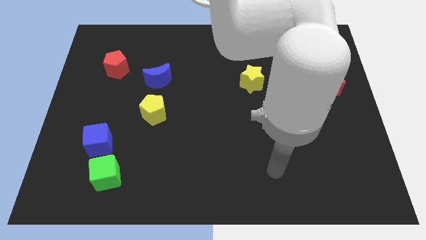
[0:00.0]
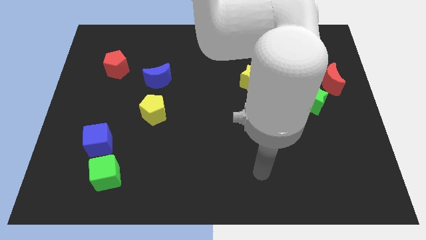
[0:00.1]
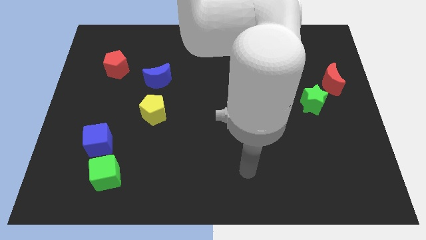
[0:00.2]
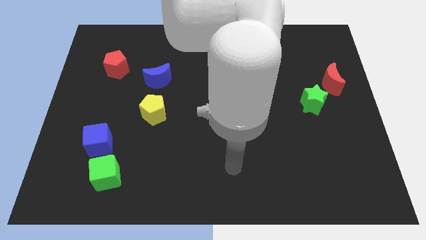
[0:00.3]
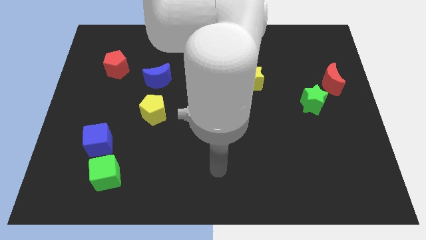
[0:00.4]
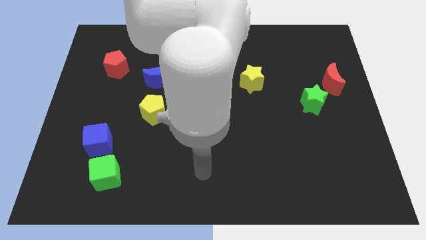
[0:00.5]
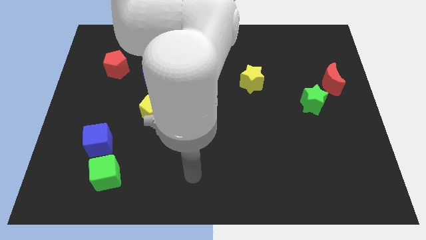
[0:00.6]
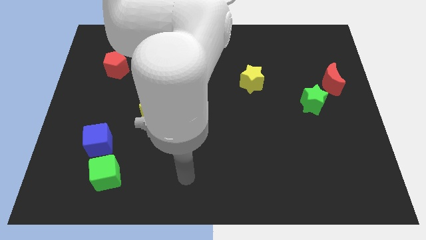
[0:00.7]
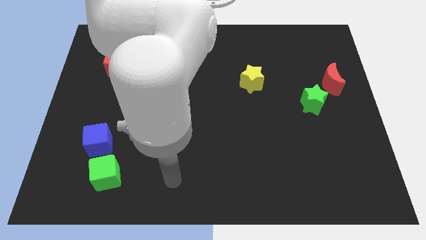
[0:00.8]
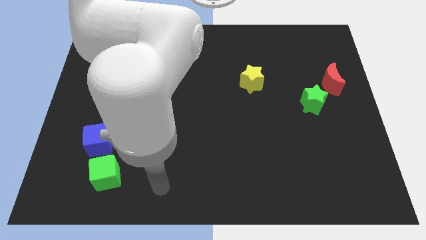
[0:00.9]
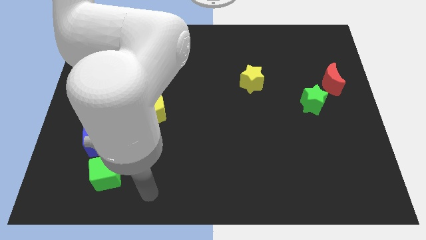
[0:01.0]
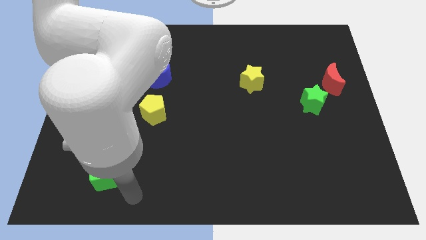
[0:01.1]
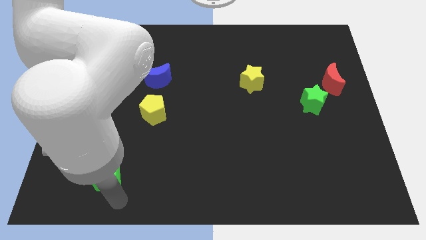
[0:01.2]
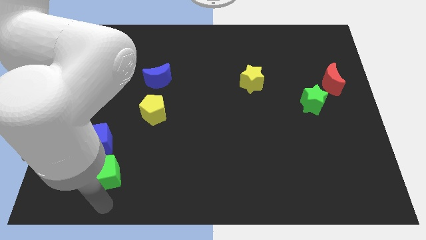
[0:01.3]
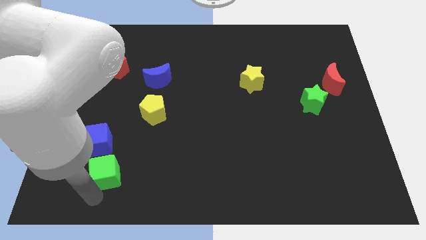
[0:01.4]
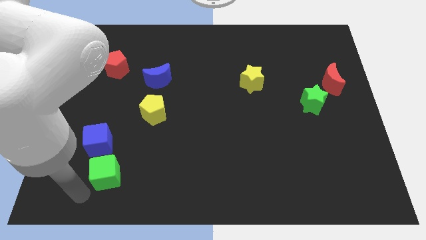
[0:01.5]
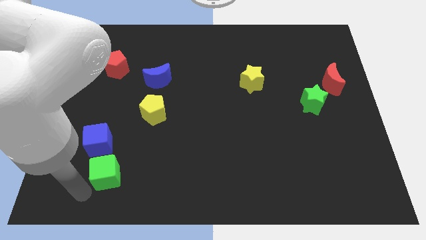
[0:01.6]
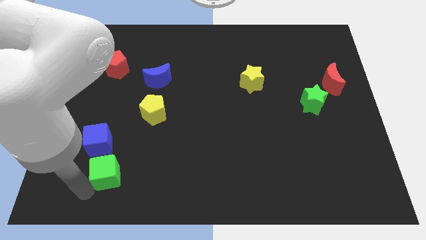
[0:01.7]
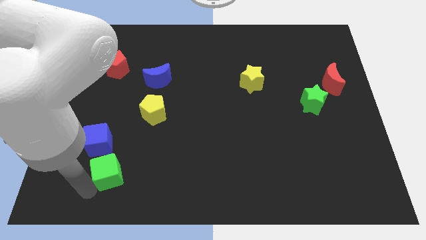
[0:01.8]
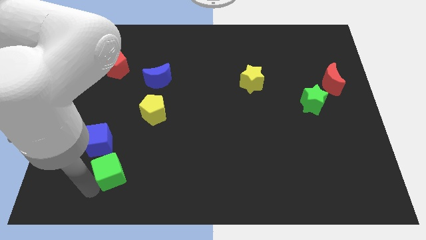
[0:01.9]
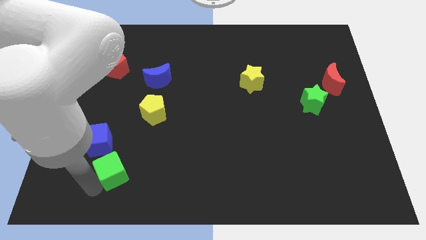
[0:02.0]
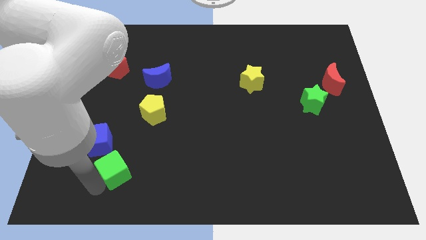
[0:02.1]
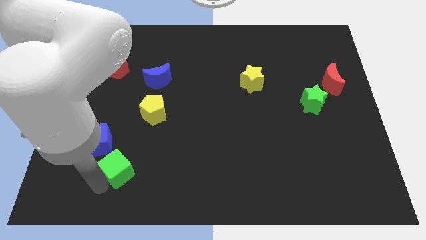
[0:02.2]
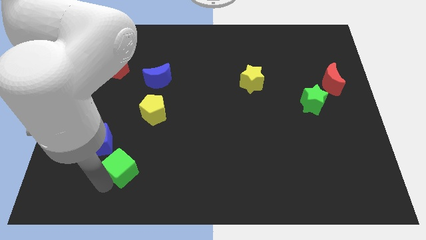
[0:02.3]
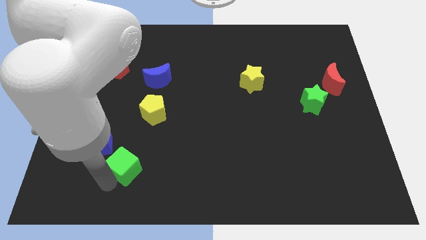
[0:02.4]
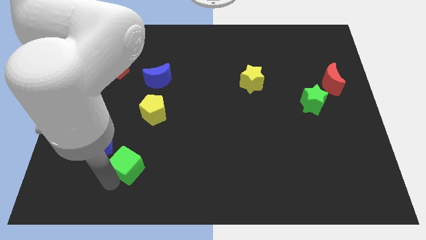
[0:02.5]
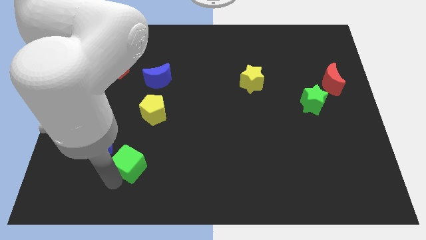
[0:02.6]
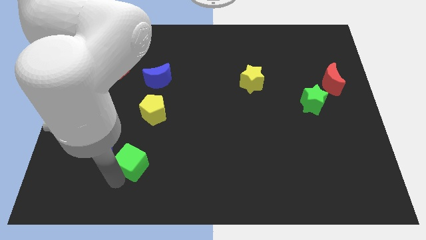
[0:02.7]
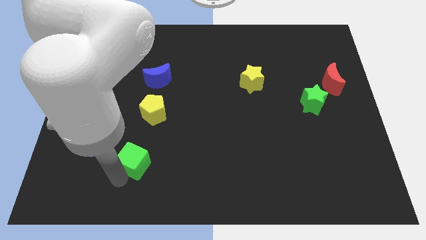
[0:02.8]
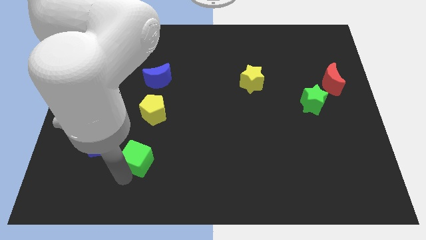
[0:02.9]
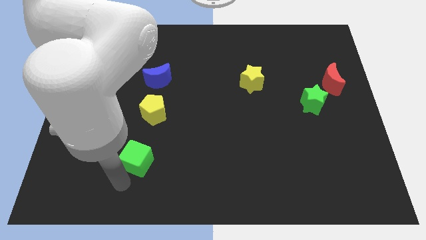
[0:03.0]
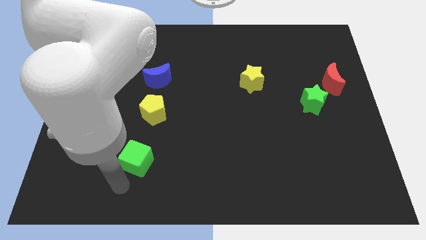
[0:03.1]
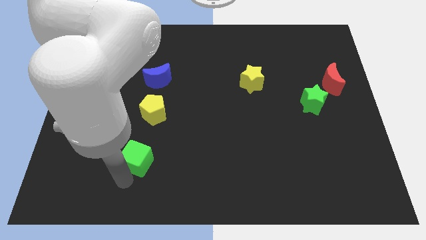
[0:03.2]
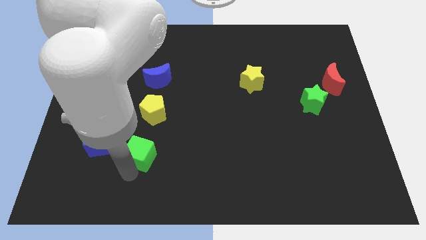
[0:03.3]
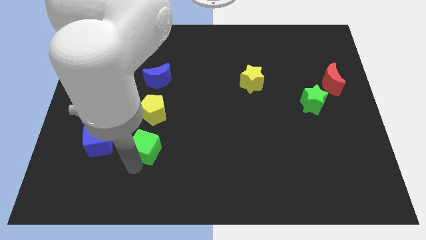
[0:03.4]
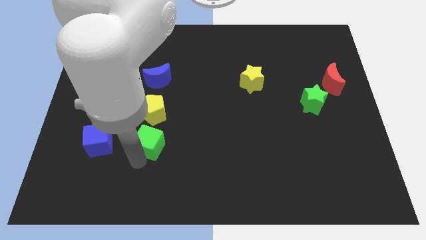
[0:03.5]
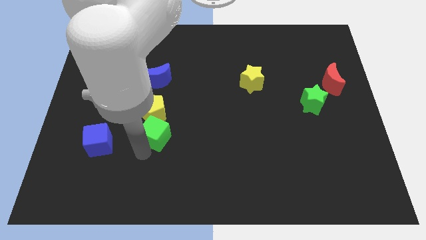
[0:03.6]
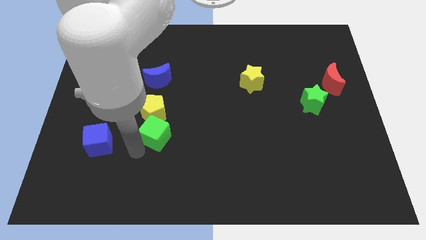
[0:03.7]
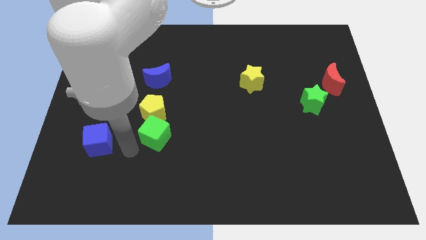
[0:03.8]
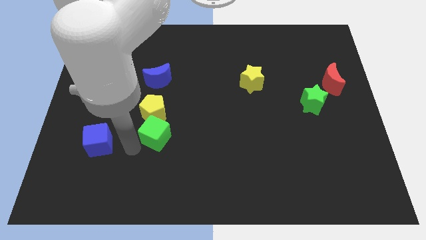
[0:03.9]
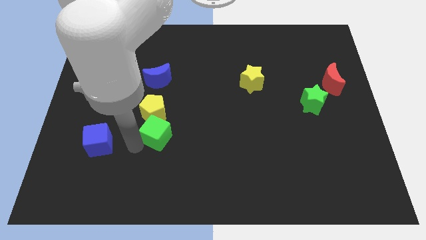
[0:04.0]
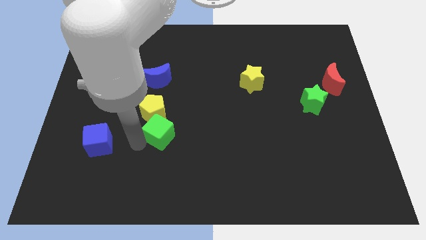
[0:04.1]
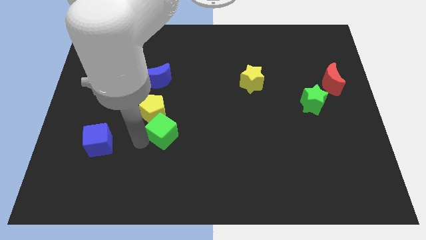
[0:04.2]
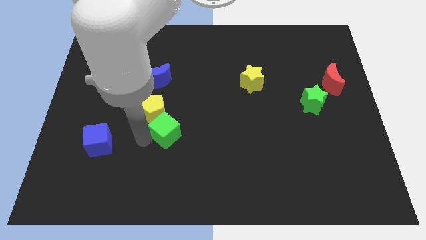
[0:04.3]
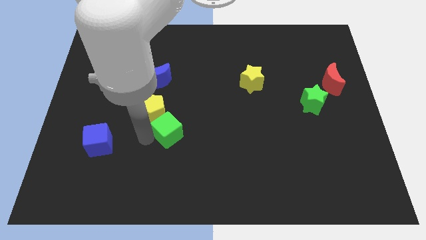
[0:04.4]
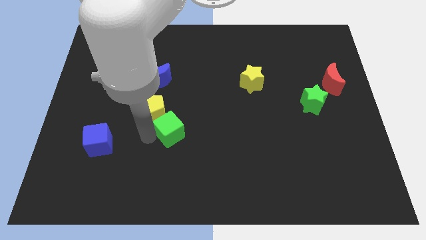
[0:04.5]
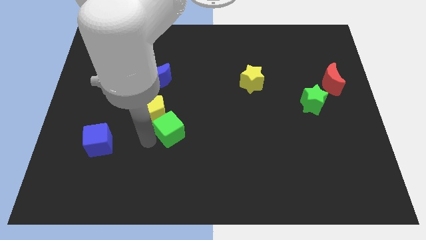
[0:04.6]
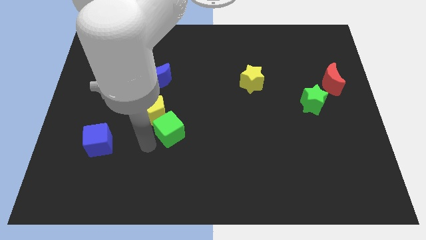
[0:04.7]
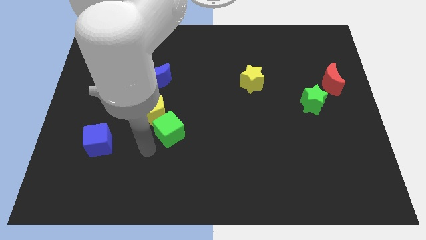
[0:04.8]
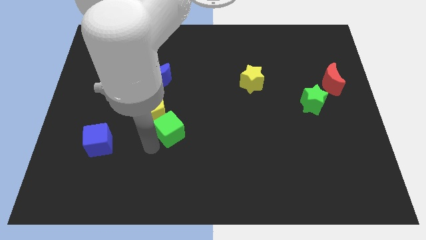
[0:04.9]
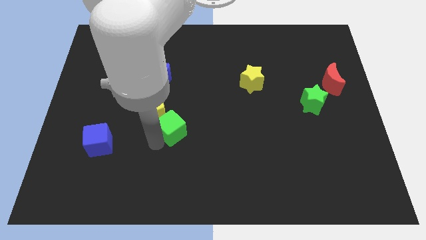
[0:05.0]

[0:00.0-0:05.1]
move the green cube to the middle of the board

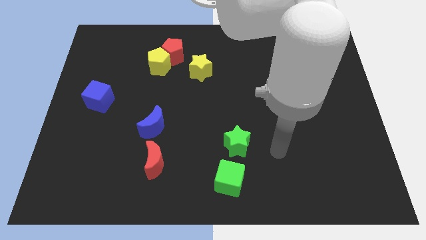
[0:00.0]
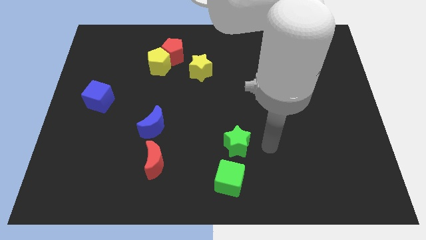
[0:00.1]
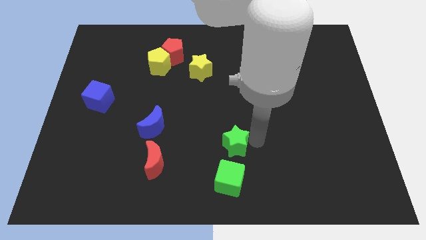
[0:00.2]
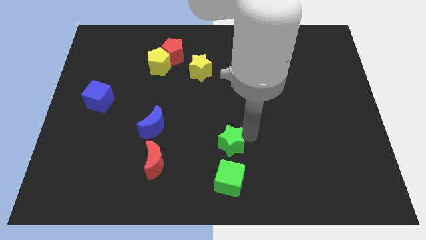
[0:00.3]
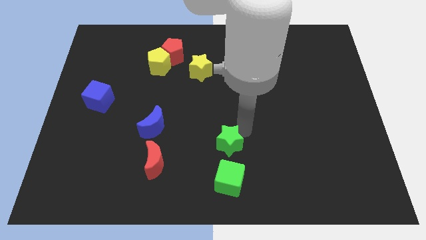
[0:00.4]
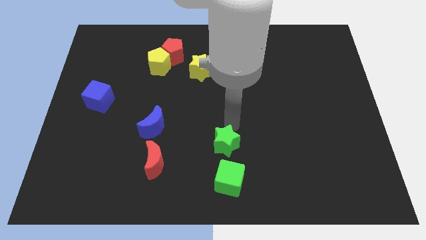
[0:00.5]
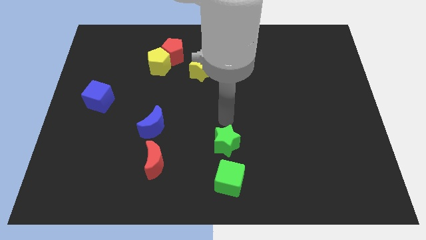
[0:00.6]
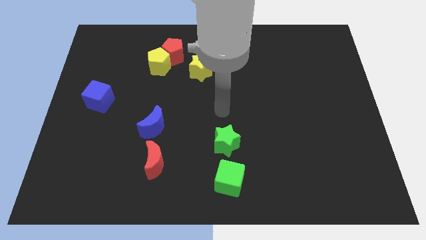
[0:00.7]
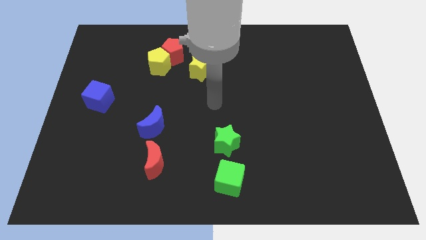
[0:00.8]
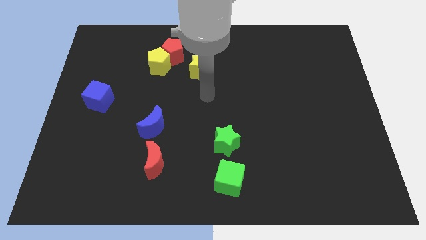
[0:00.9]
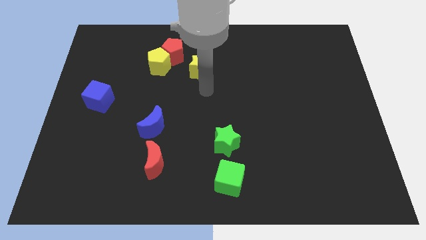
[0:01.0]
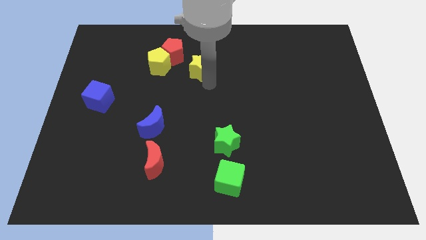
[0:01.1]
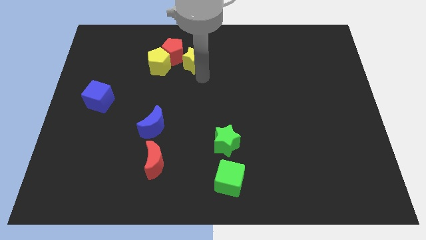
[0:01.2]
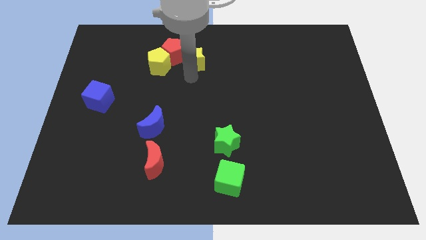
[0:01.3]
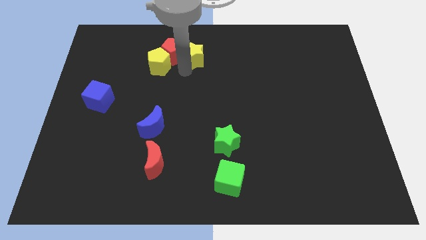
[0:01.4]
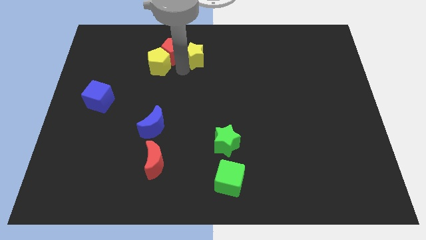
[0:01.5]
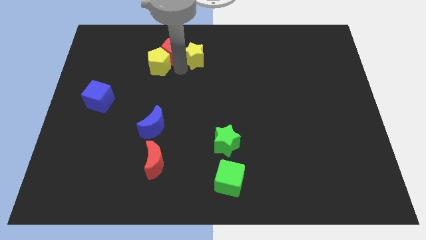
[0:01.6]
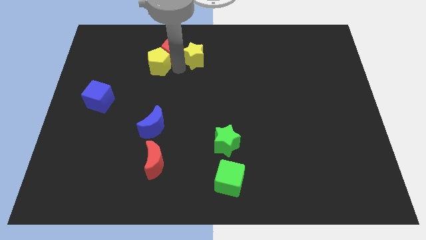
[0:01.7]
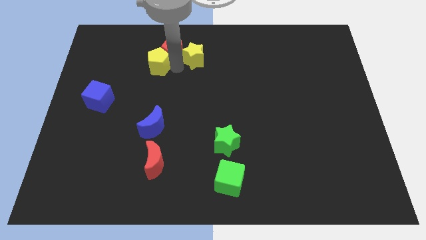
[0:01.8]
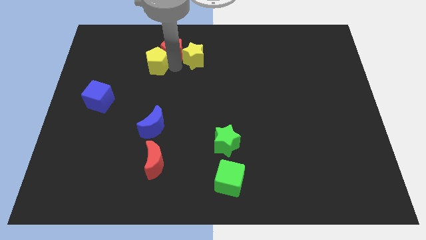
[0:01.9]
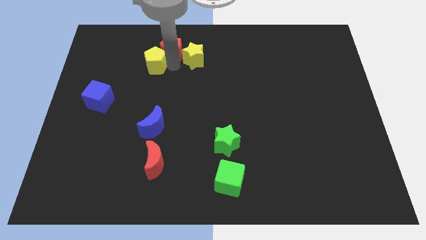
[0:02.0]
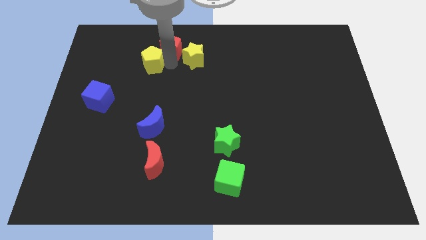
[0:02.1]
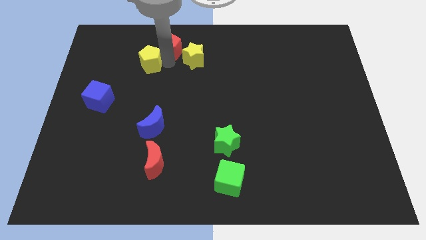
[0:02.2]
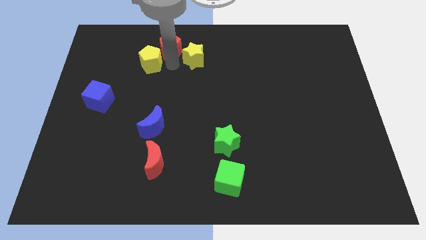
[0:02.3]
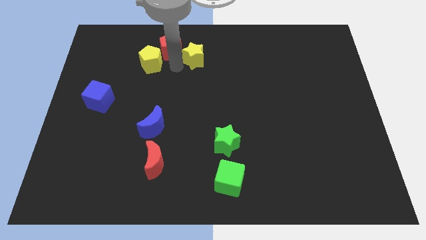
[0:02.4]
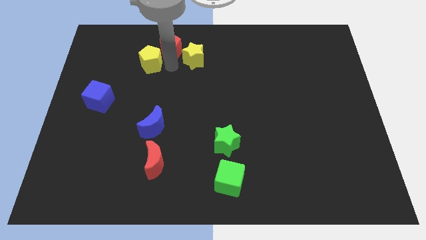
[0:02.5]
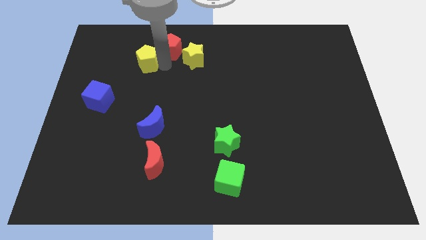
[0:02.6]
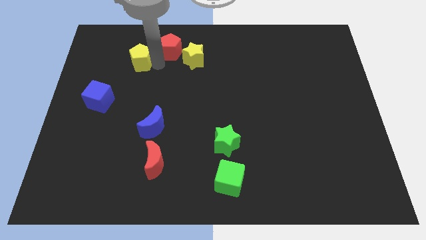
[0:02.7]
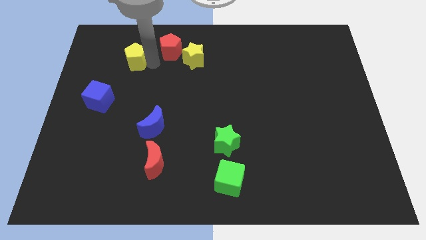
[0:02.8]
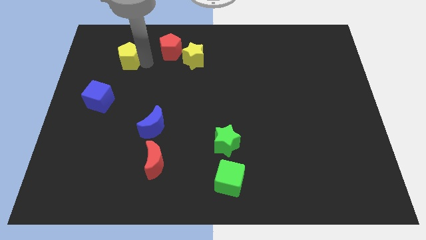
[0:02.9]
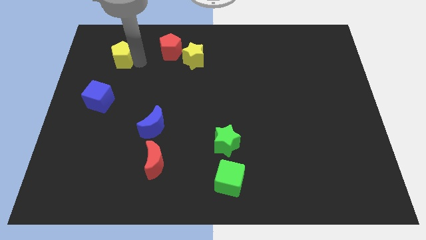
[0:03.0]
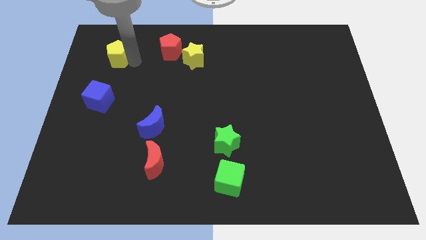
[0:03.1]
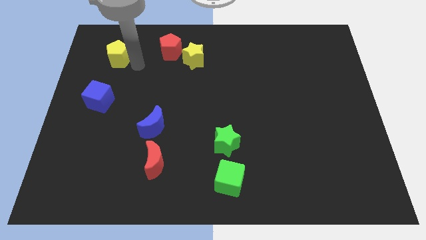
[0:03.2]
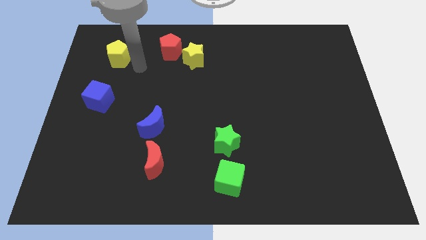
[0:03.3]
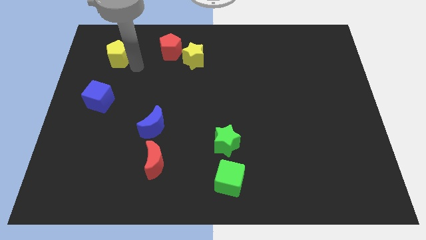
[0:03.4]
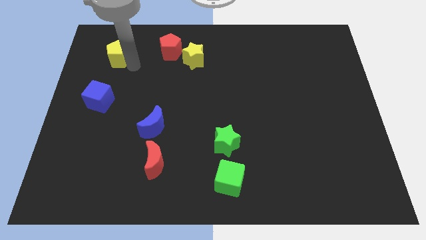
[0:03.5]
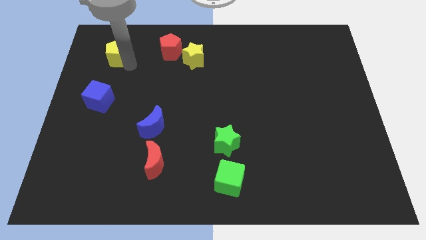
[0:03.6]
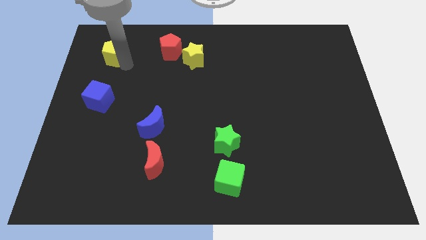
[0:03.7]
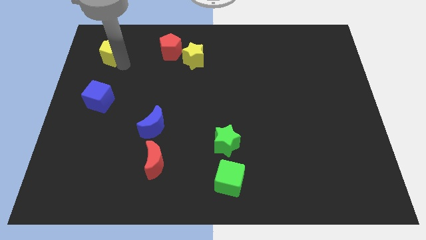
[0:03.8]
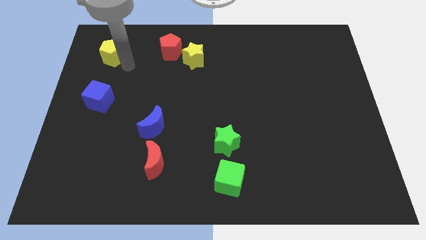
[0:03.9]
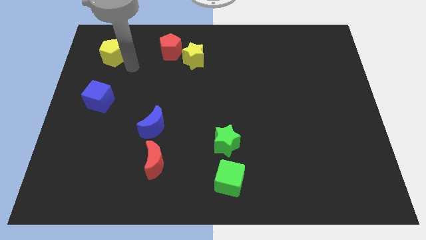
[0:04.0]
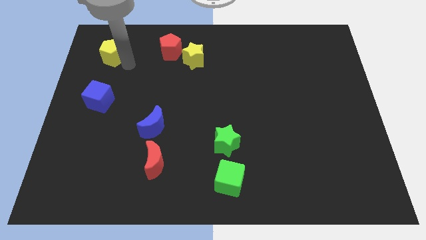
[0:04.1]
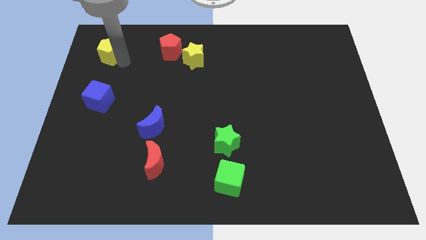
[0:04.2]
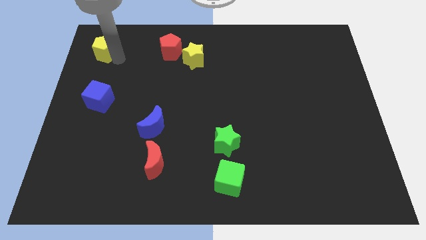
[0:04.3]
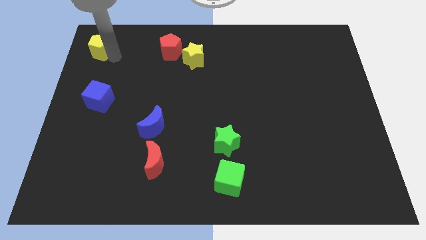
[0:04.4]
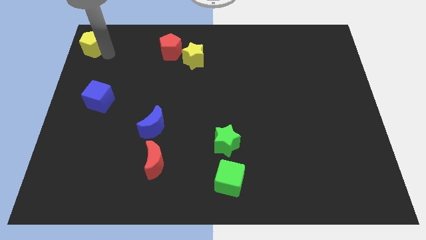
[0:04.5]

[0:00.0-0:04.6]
move the yellow pentagon to the top left
